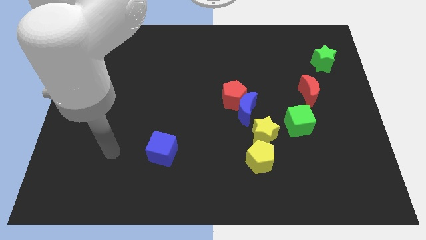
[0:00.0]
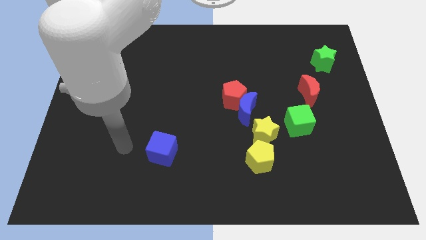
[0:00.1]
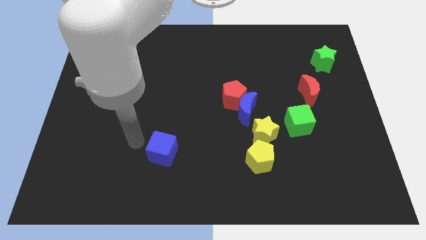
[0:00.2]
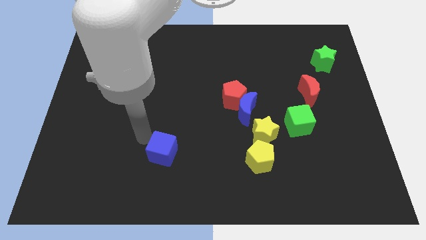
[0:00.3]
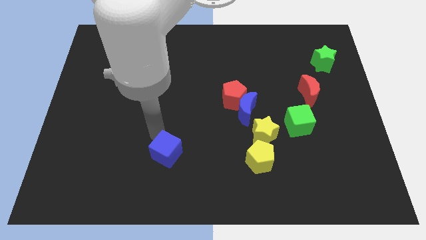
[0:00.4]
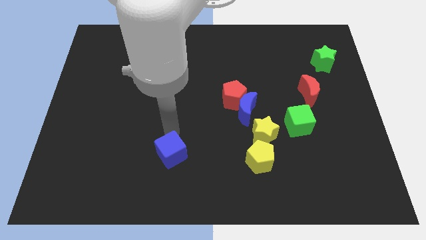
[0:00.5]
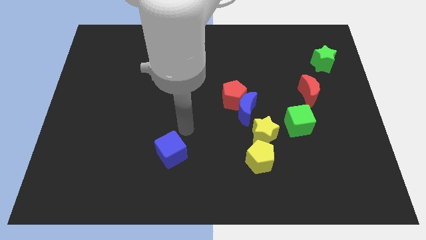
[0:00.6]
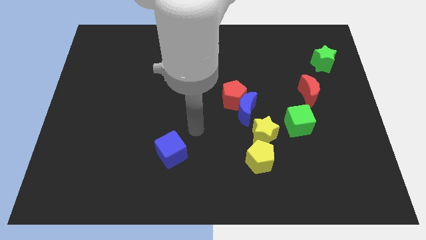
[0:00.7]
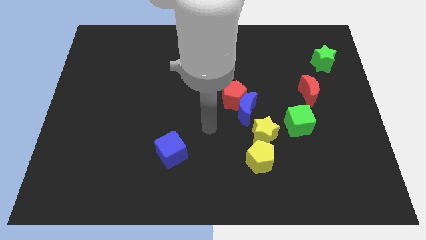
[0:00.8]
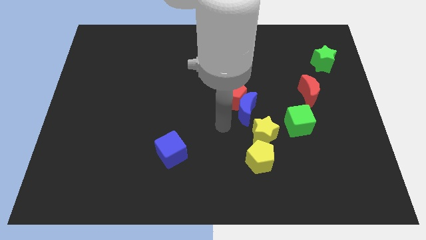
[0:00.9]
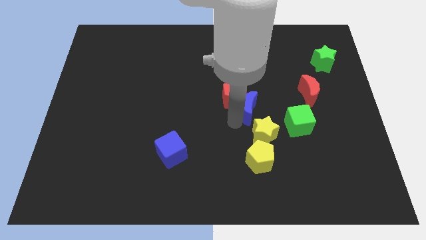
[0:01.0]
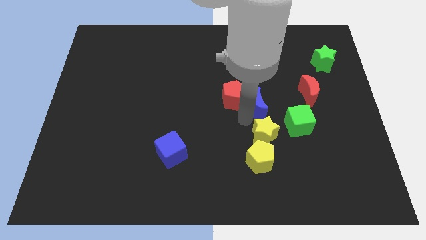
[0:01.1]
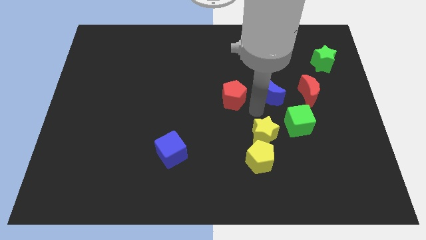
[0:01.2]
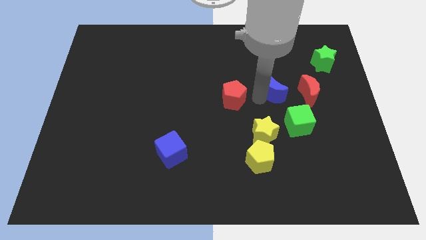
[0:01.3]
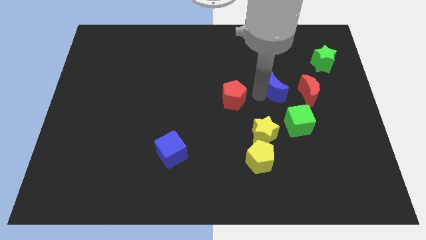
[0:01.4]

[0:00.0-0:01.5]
pull the red pentagon apart from the blue moon

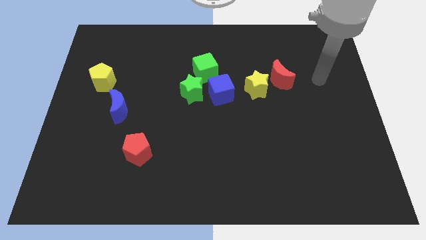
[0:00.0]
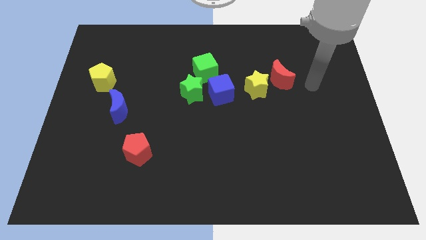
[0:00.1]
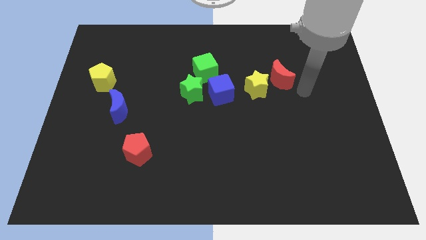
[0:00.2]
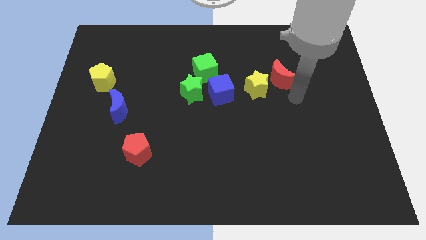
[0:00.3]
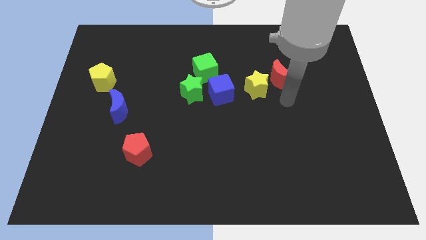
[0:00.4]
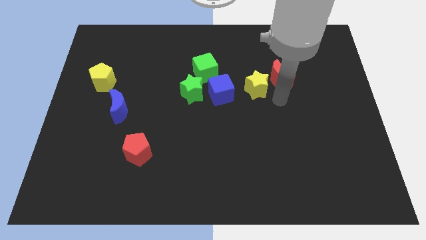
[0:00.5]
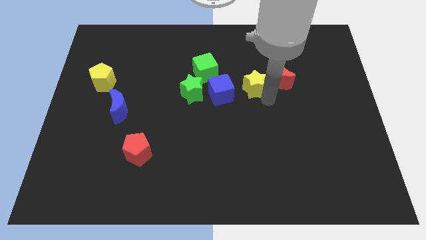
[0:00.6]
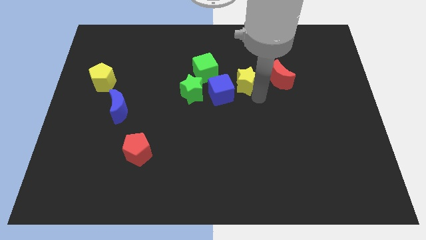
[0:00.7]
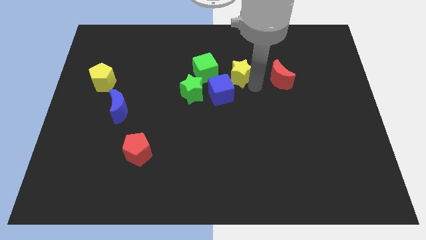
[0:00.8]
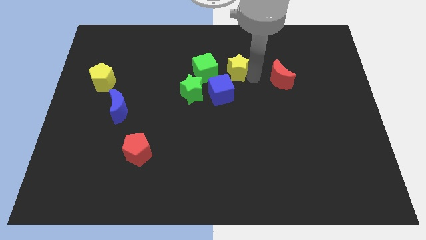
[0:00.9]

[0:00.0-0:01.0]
separate the red moon from the yellow star

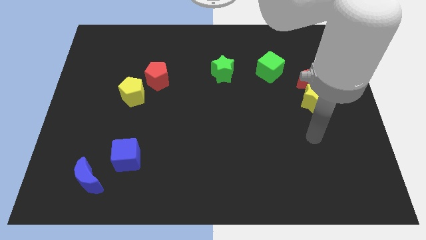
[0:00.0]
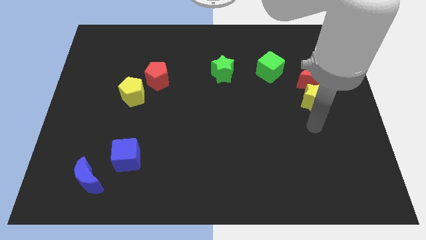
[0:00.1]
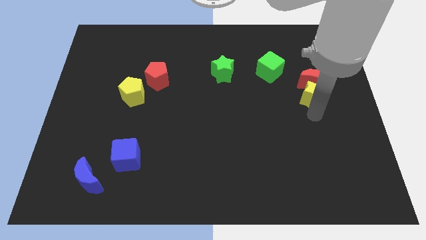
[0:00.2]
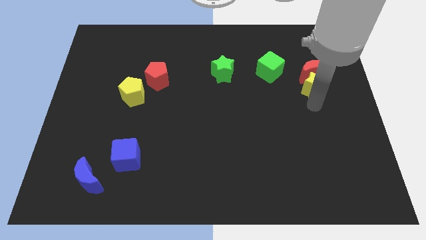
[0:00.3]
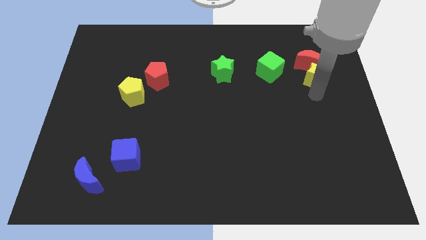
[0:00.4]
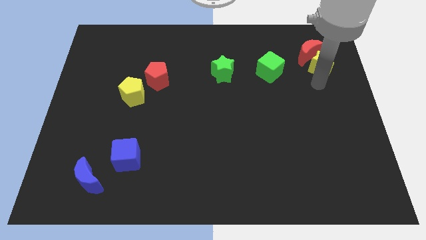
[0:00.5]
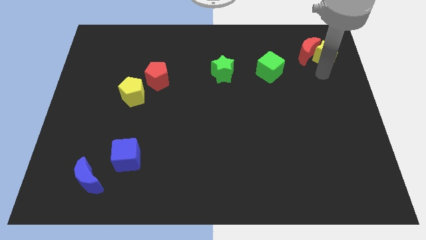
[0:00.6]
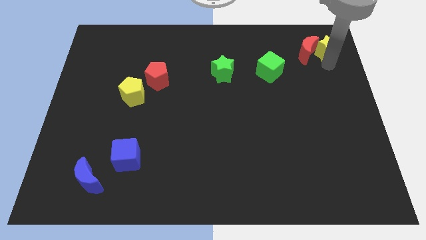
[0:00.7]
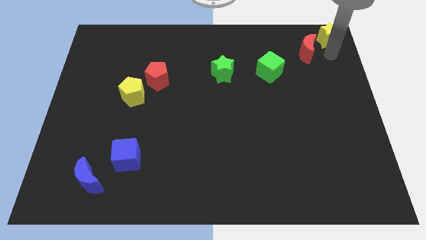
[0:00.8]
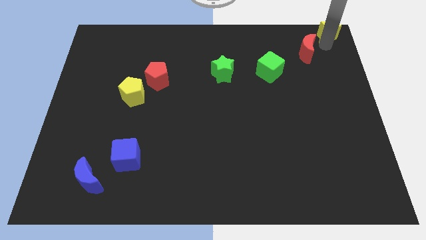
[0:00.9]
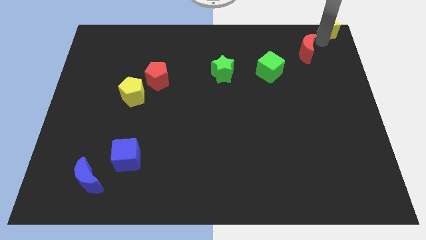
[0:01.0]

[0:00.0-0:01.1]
pull the red moon apart from the yellow star

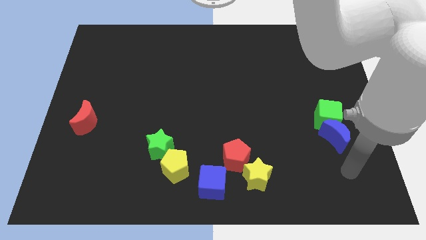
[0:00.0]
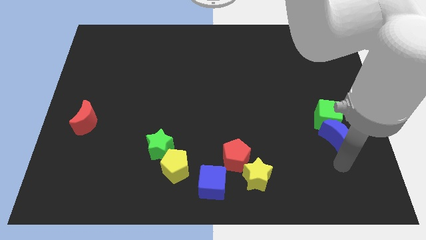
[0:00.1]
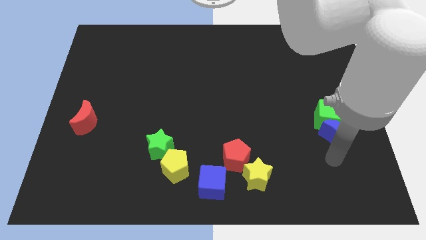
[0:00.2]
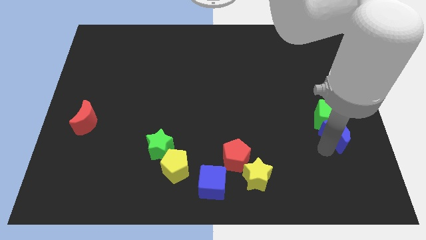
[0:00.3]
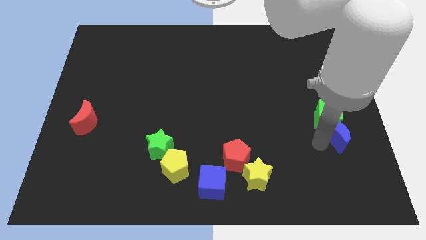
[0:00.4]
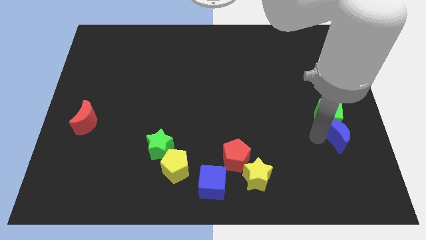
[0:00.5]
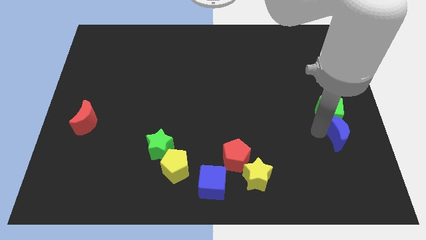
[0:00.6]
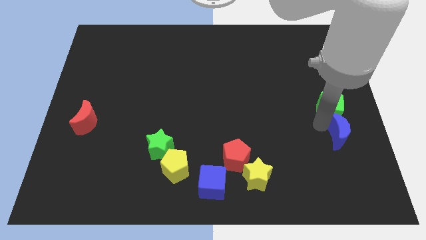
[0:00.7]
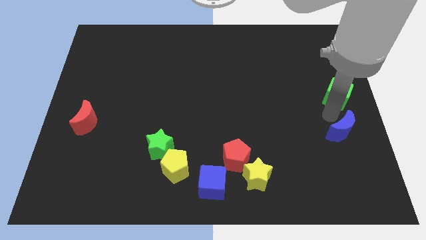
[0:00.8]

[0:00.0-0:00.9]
separate the blue moon from the green cube

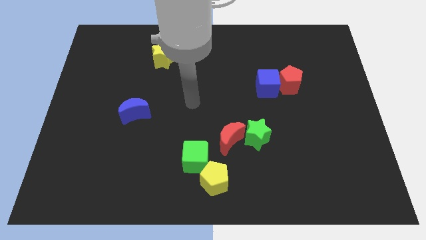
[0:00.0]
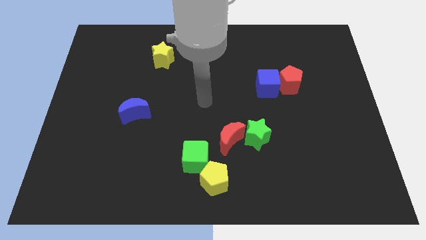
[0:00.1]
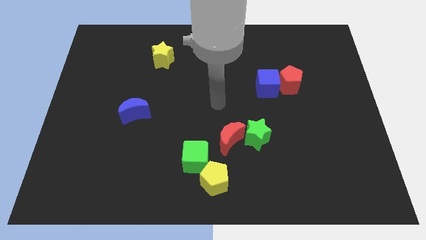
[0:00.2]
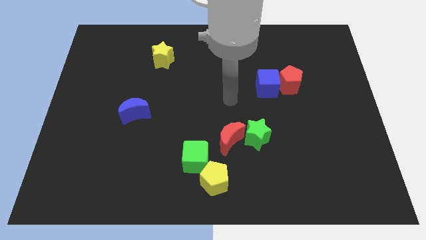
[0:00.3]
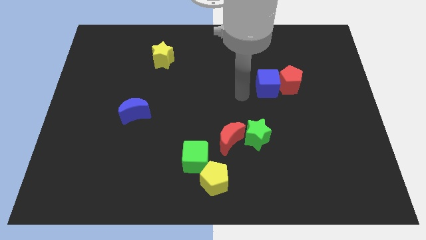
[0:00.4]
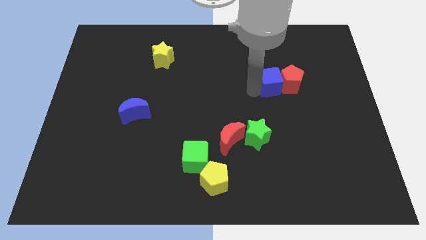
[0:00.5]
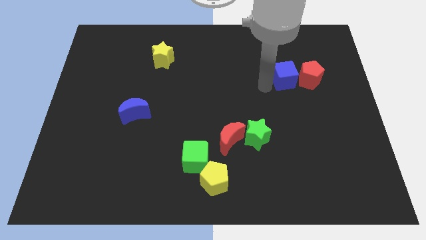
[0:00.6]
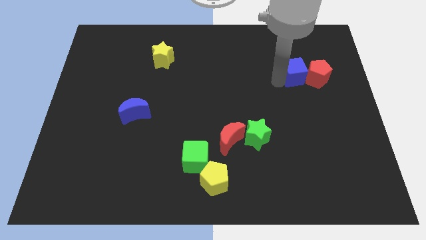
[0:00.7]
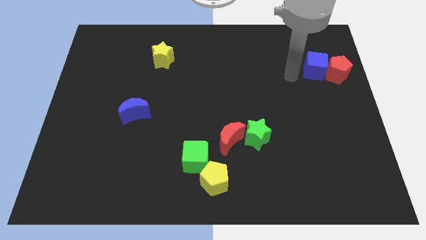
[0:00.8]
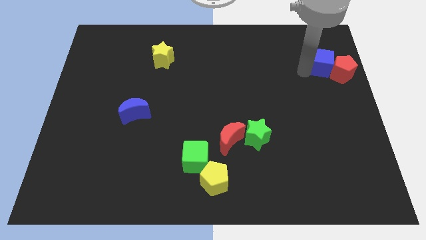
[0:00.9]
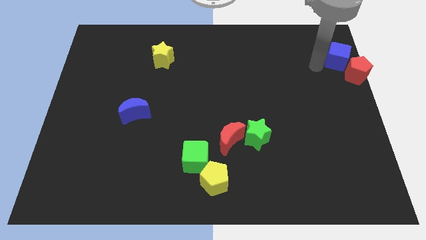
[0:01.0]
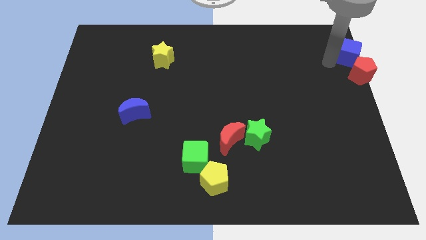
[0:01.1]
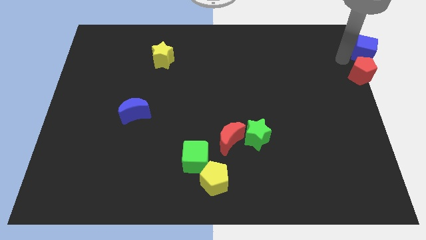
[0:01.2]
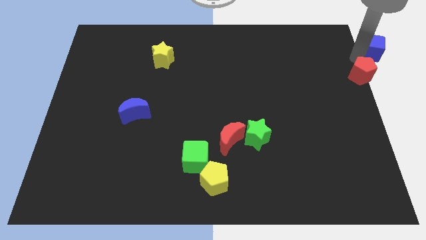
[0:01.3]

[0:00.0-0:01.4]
pull the red pentagon apart from the blue cube

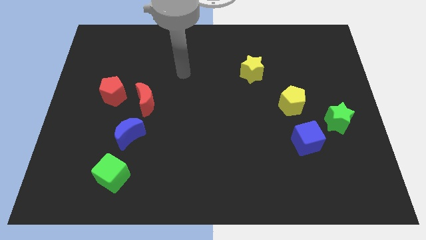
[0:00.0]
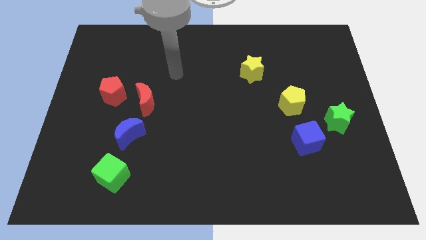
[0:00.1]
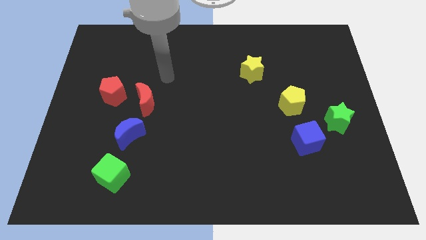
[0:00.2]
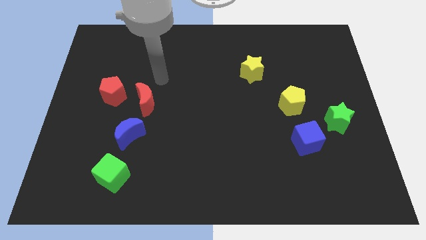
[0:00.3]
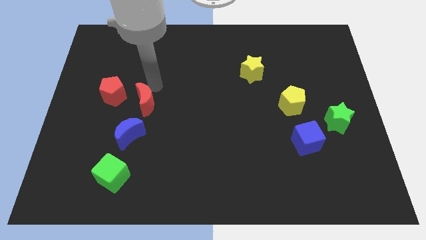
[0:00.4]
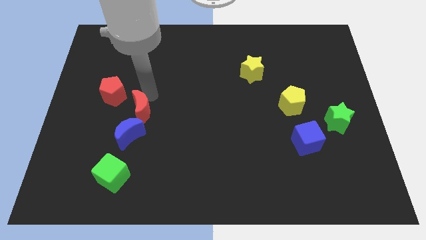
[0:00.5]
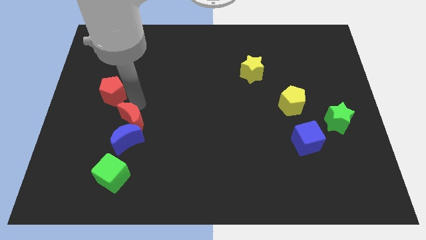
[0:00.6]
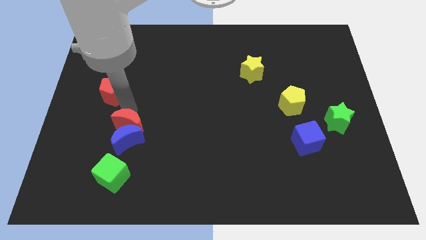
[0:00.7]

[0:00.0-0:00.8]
move the red pentagon away from the red moon

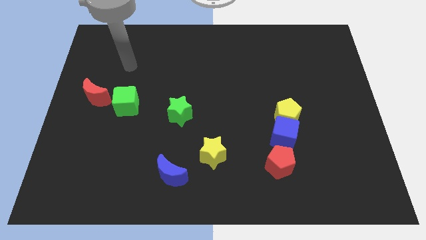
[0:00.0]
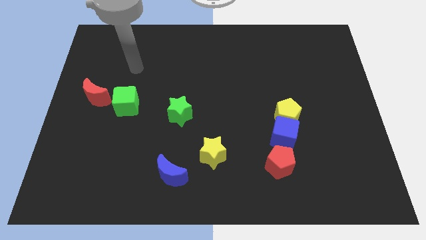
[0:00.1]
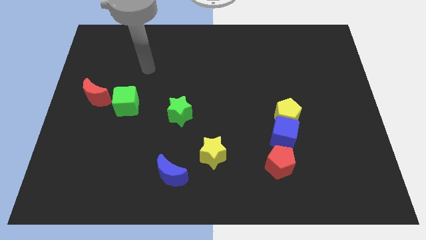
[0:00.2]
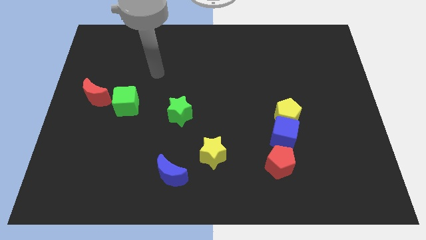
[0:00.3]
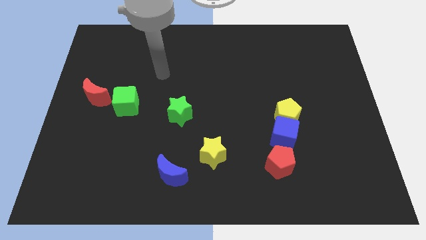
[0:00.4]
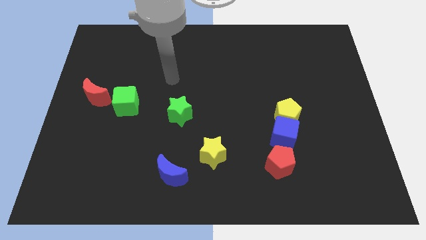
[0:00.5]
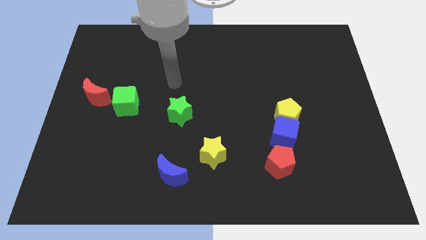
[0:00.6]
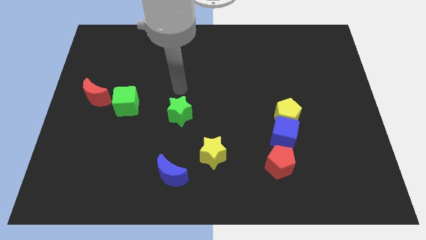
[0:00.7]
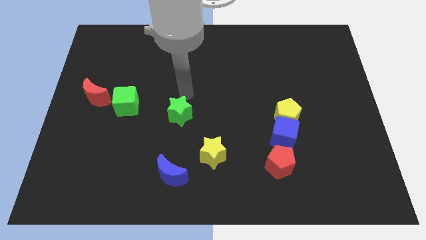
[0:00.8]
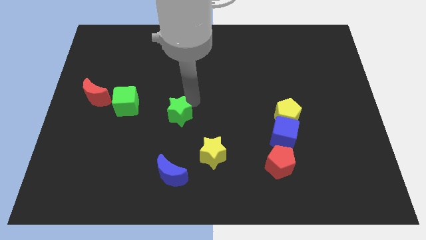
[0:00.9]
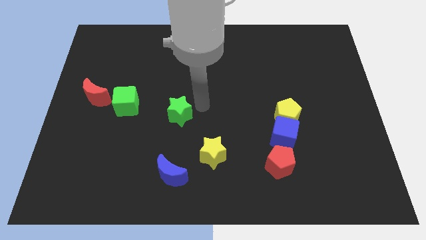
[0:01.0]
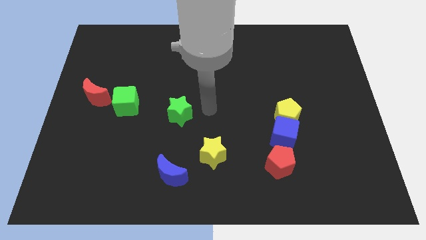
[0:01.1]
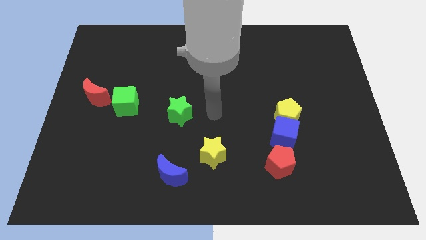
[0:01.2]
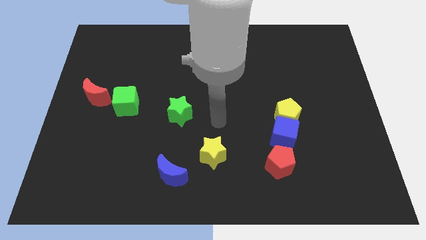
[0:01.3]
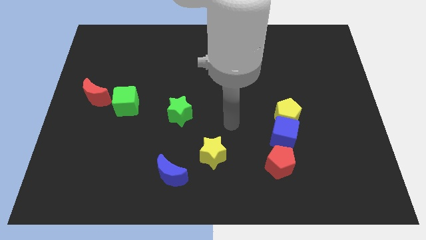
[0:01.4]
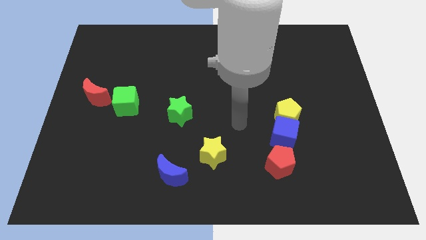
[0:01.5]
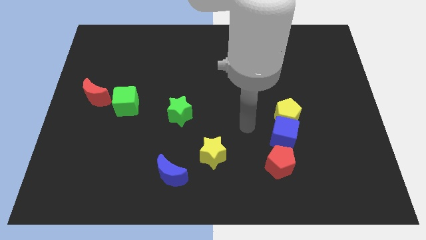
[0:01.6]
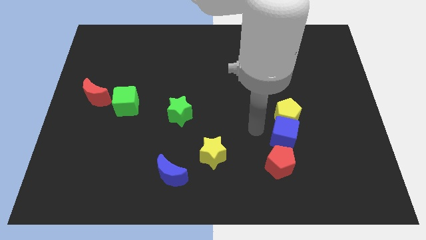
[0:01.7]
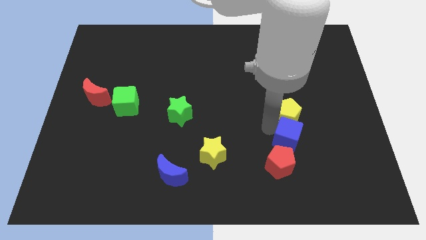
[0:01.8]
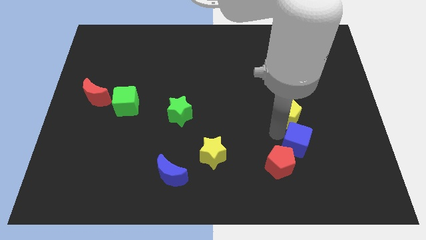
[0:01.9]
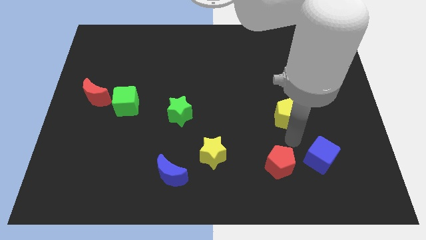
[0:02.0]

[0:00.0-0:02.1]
move the yellow pentagon away from the blue cube

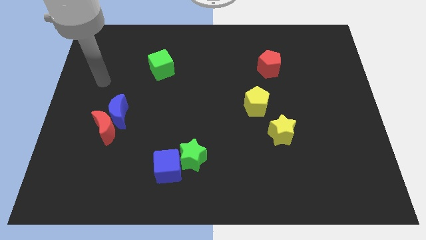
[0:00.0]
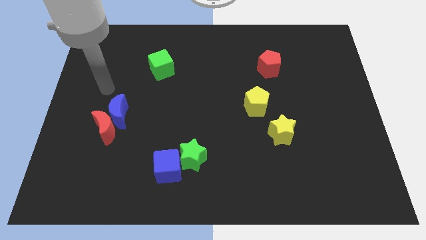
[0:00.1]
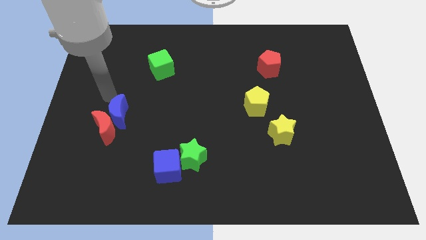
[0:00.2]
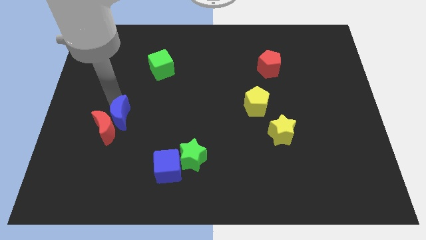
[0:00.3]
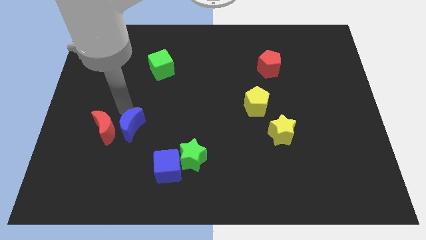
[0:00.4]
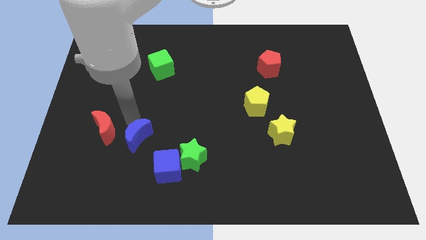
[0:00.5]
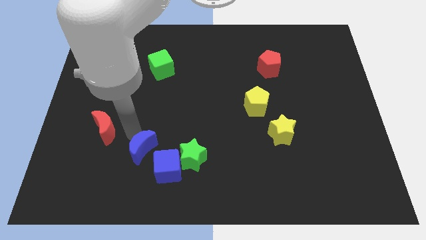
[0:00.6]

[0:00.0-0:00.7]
separate the red moon from the blue moon
